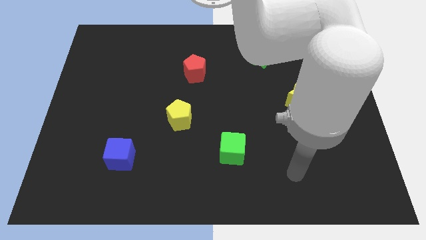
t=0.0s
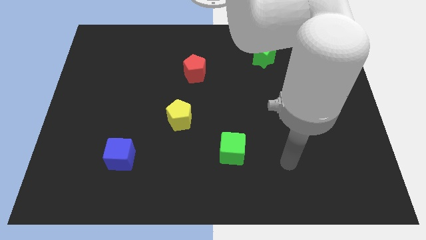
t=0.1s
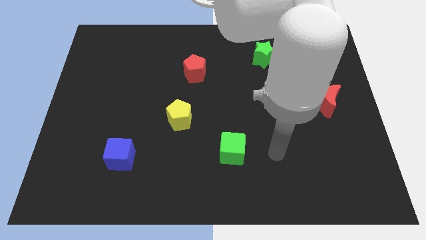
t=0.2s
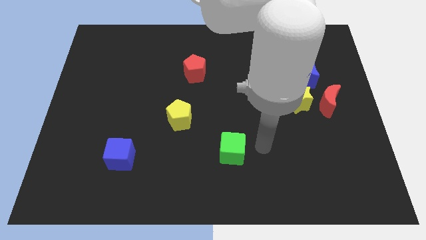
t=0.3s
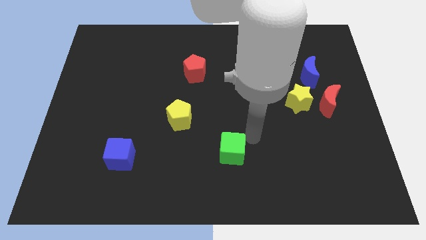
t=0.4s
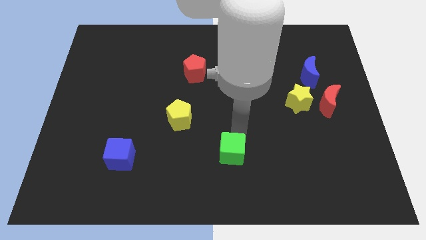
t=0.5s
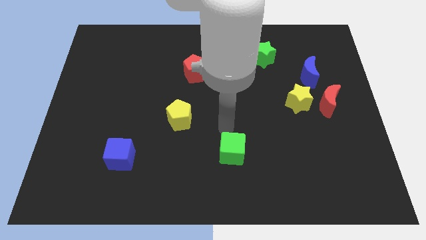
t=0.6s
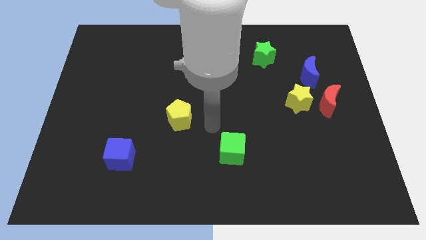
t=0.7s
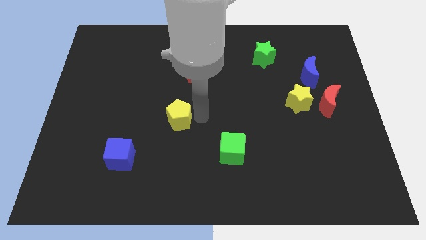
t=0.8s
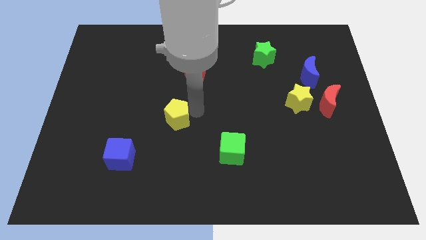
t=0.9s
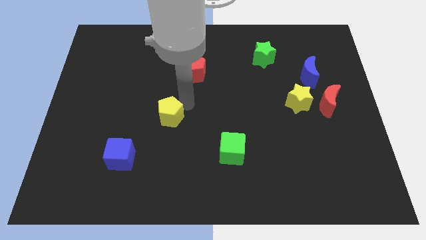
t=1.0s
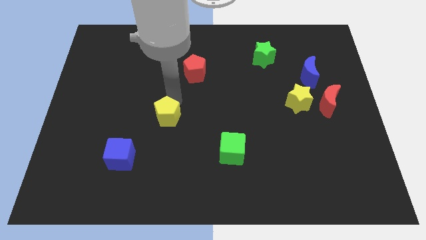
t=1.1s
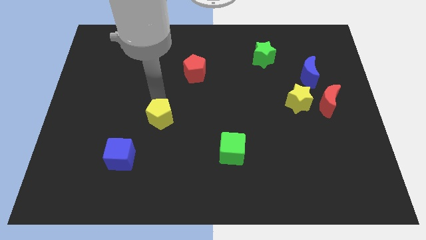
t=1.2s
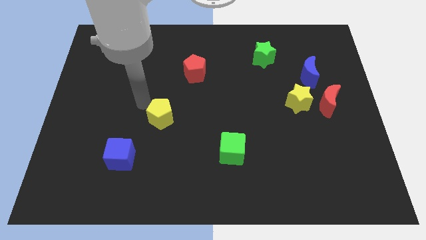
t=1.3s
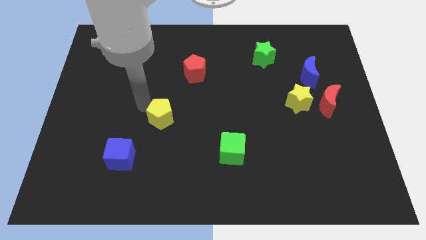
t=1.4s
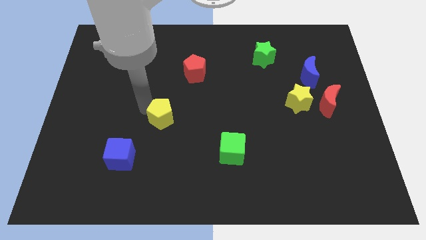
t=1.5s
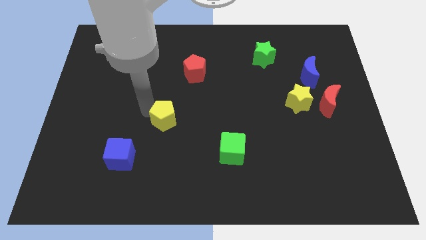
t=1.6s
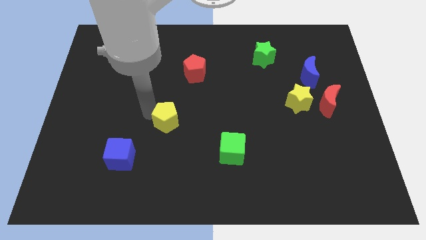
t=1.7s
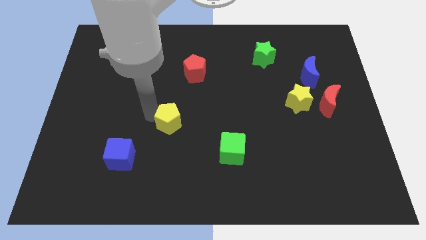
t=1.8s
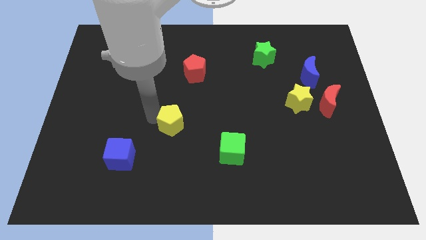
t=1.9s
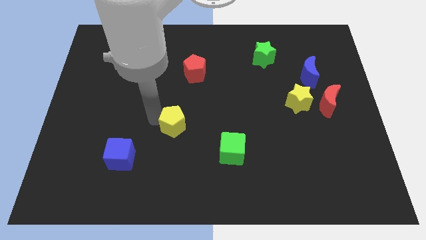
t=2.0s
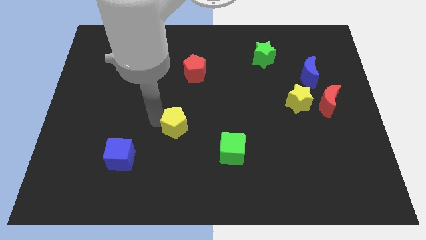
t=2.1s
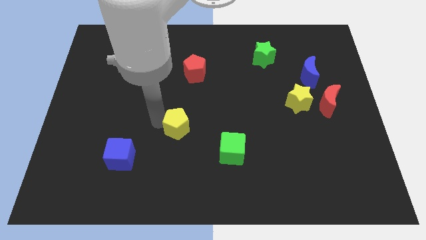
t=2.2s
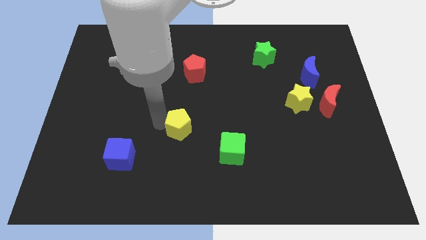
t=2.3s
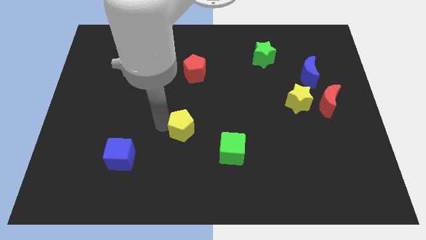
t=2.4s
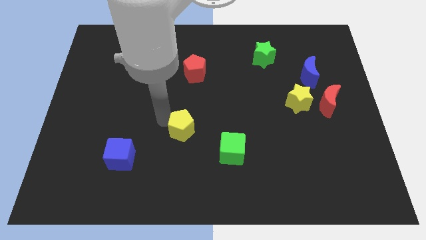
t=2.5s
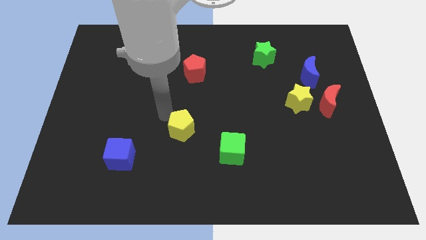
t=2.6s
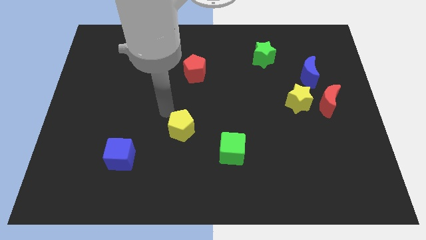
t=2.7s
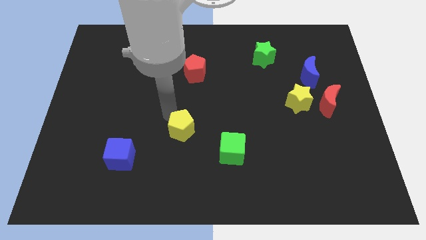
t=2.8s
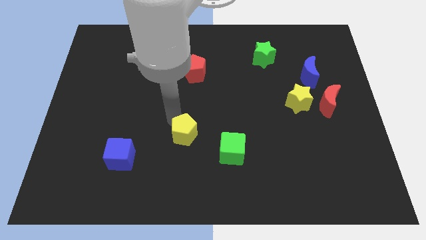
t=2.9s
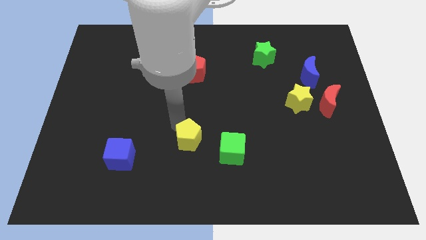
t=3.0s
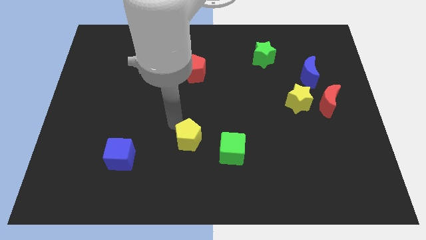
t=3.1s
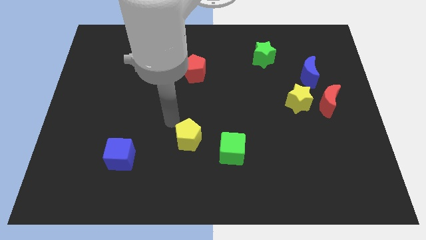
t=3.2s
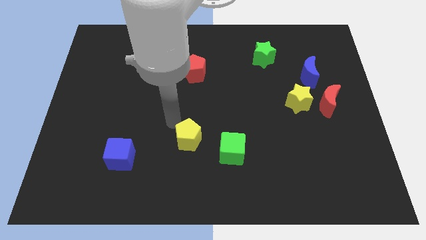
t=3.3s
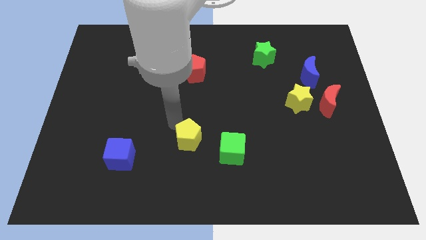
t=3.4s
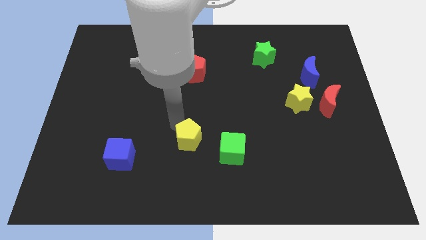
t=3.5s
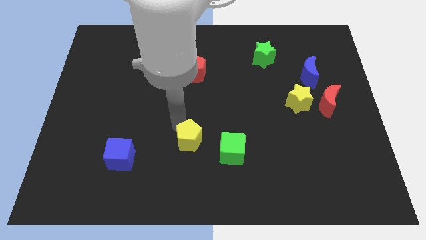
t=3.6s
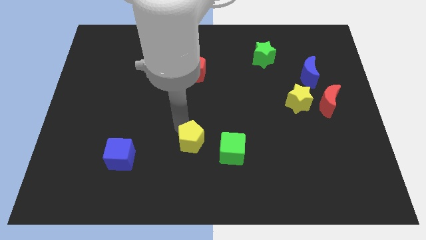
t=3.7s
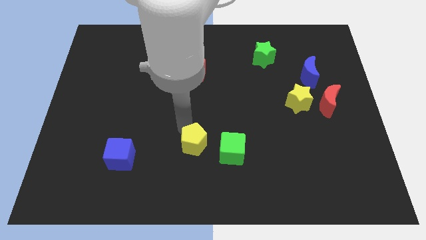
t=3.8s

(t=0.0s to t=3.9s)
slightly push the yellow pentagon downwards and to the right

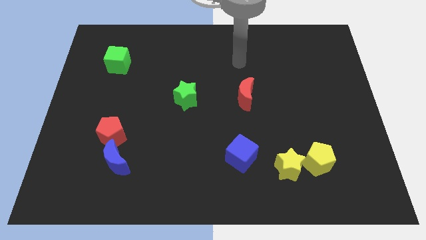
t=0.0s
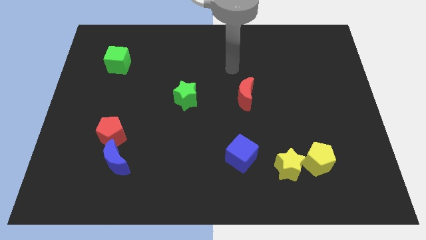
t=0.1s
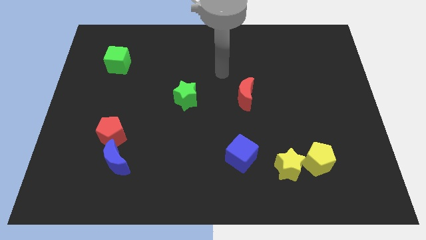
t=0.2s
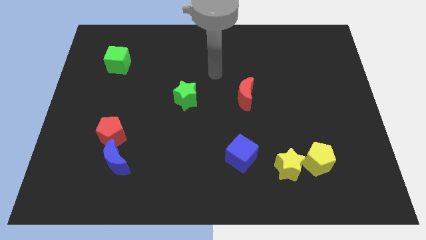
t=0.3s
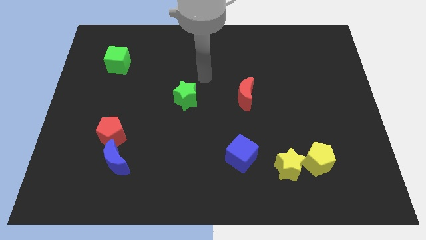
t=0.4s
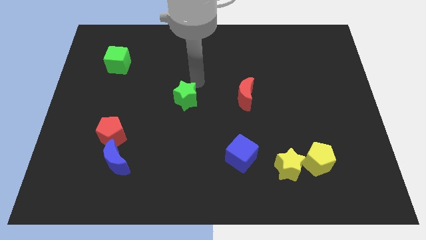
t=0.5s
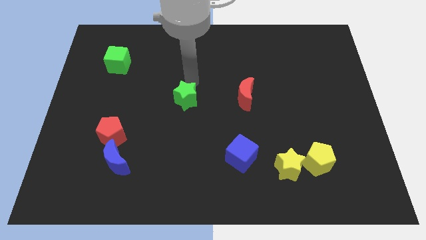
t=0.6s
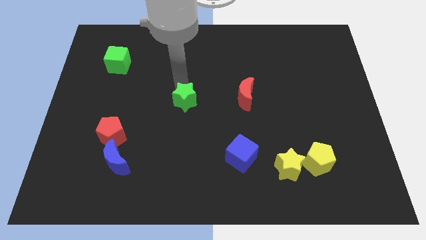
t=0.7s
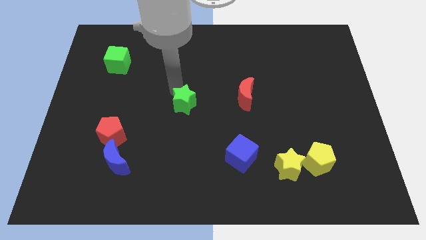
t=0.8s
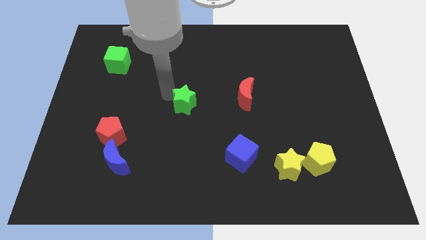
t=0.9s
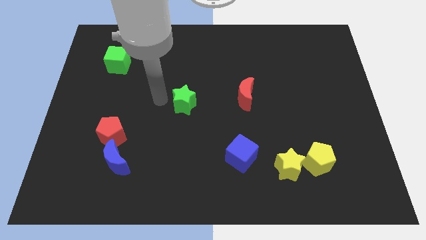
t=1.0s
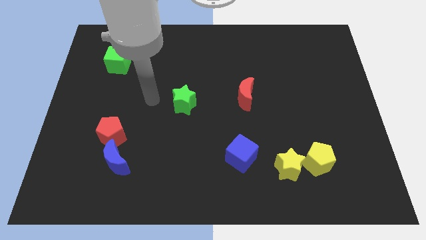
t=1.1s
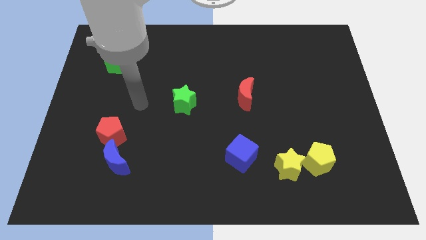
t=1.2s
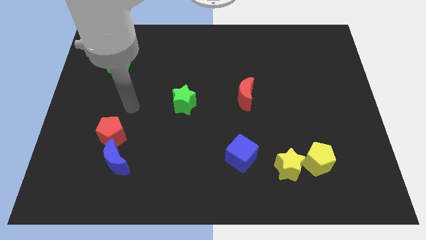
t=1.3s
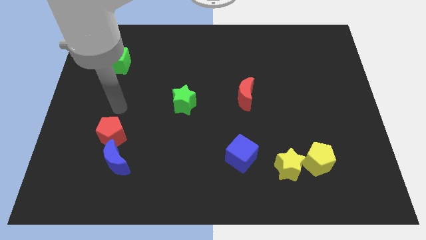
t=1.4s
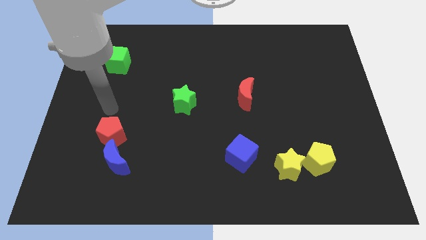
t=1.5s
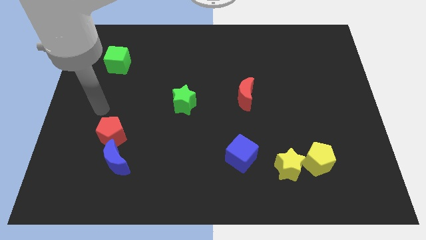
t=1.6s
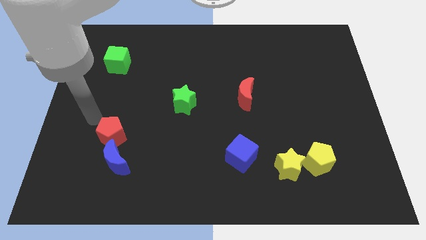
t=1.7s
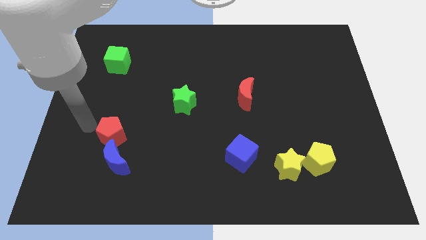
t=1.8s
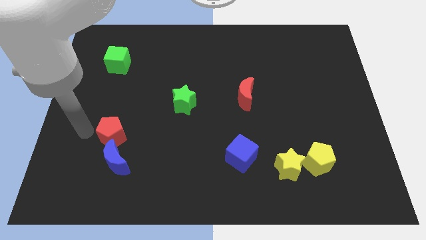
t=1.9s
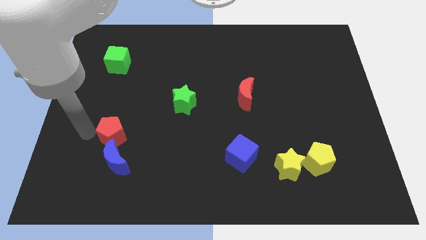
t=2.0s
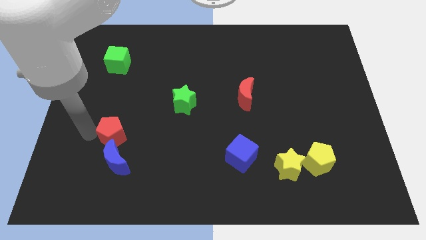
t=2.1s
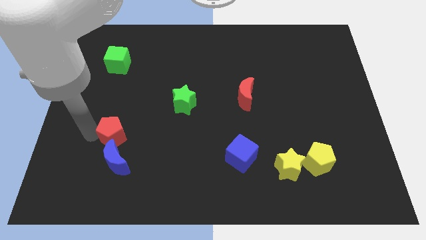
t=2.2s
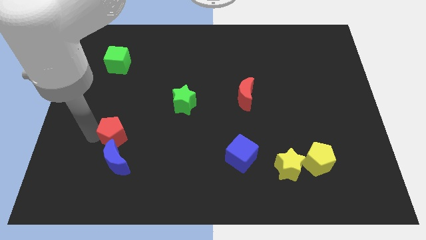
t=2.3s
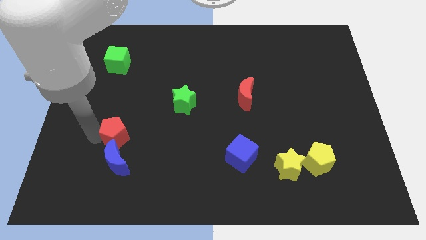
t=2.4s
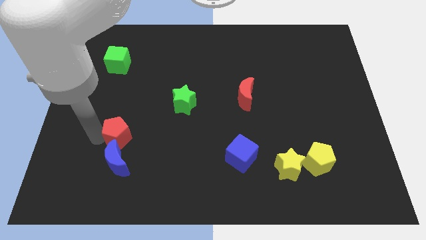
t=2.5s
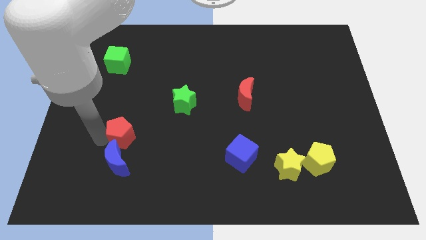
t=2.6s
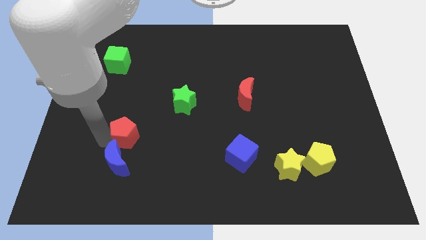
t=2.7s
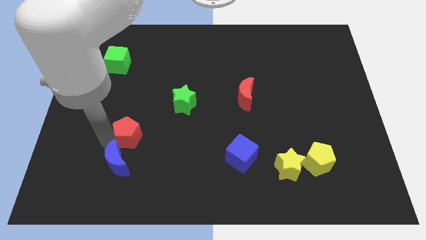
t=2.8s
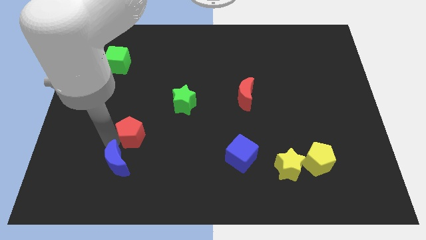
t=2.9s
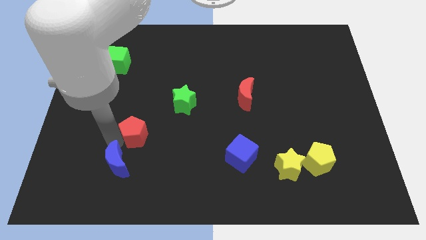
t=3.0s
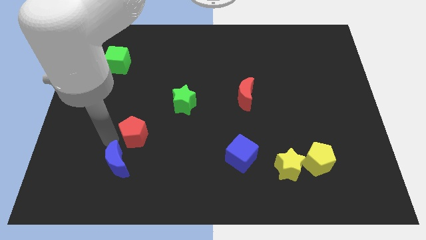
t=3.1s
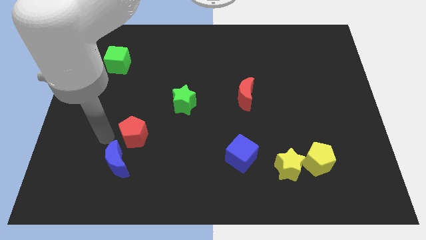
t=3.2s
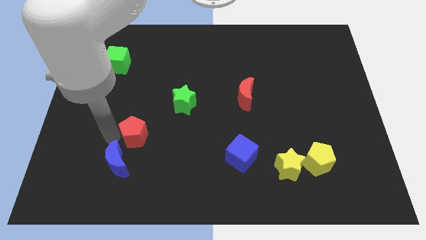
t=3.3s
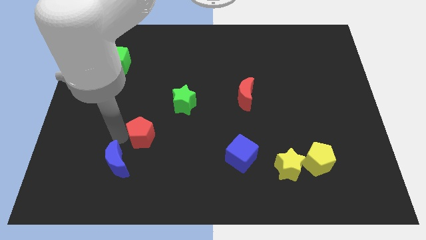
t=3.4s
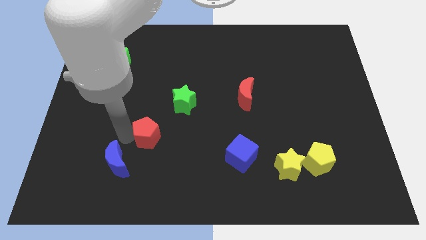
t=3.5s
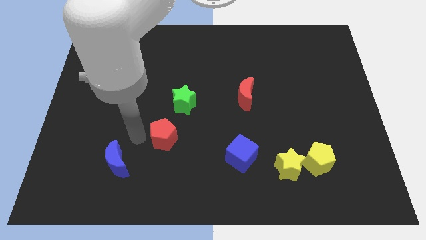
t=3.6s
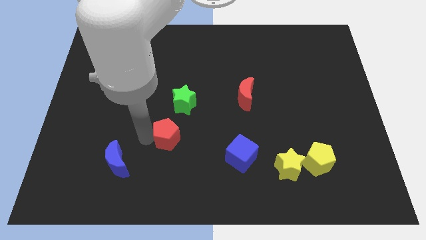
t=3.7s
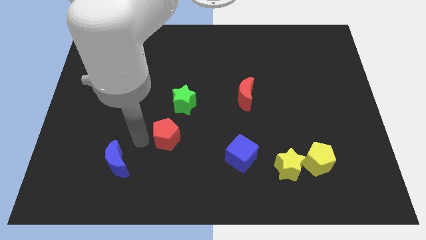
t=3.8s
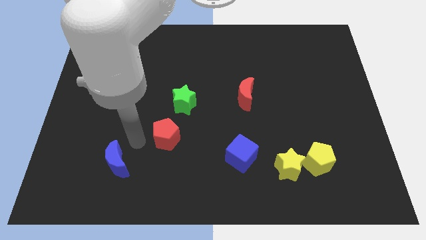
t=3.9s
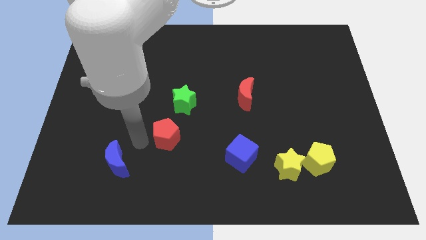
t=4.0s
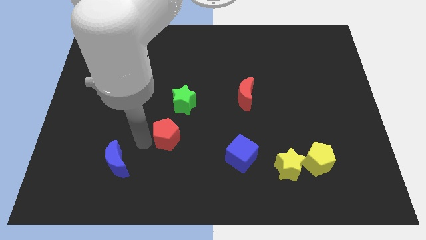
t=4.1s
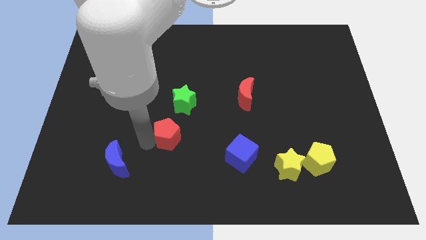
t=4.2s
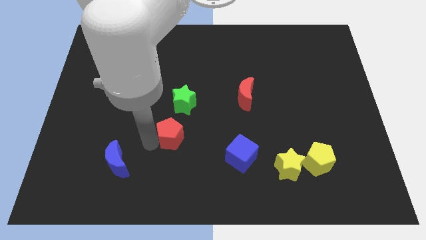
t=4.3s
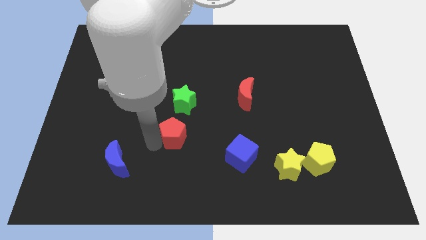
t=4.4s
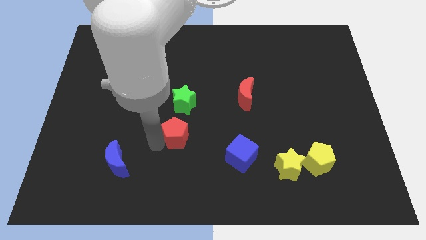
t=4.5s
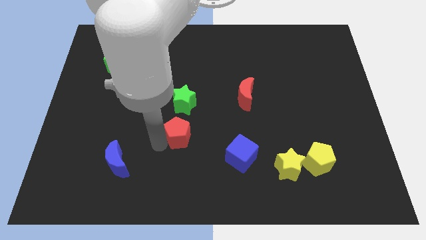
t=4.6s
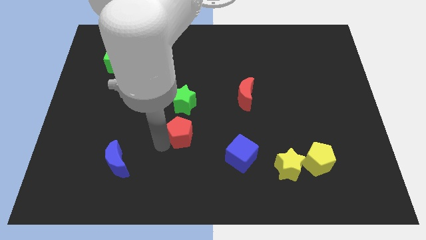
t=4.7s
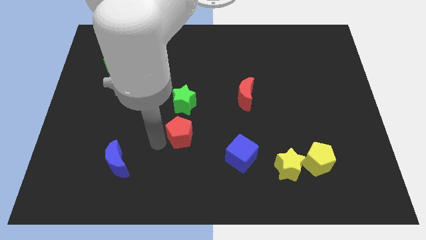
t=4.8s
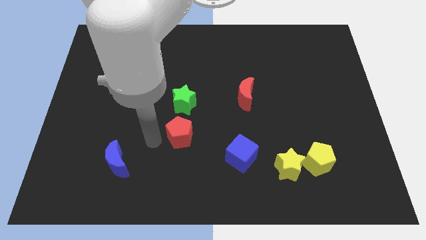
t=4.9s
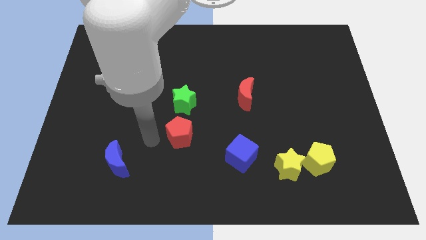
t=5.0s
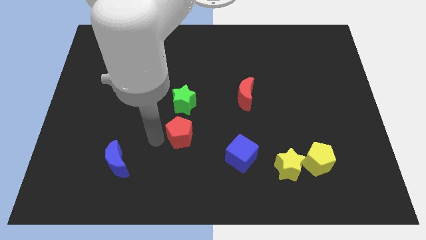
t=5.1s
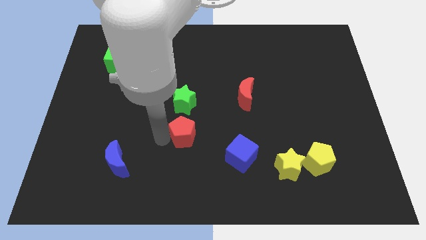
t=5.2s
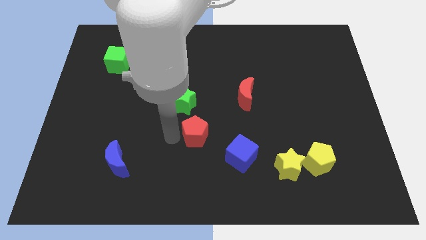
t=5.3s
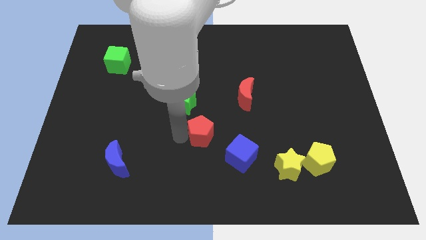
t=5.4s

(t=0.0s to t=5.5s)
push the red pentagon to the right
